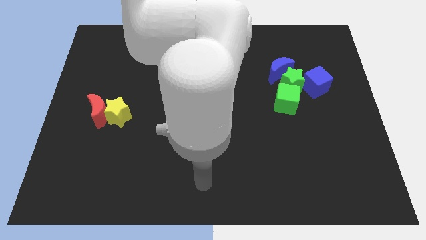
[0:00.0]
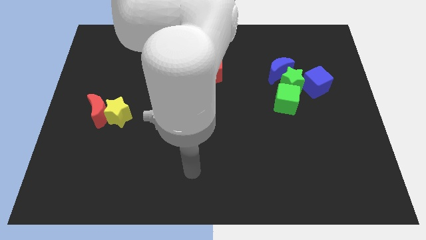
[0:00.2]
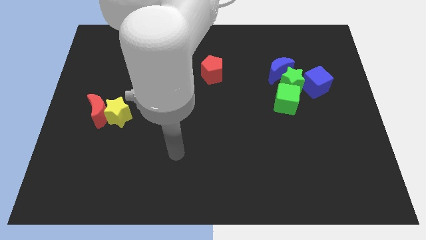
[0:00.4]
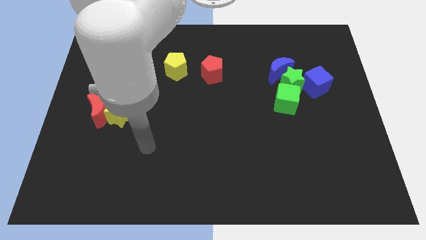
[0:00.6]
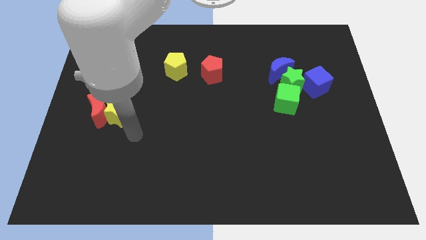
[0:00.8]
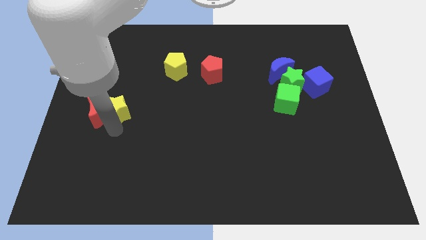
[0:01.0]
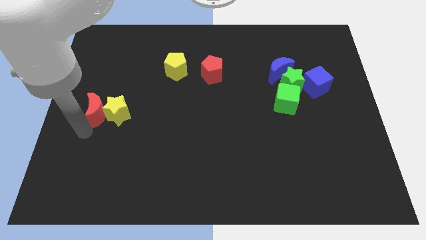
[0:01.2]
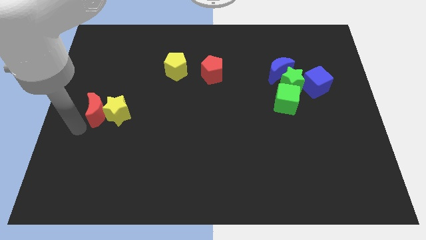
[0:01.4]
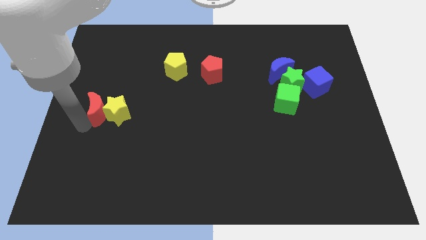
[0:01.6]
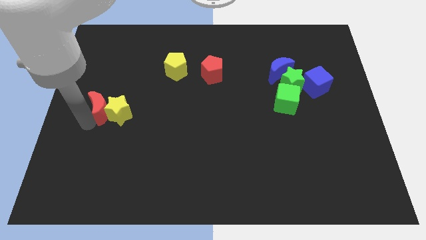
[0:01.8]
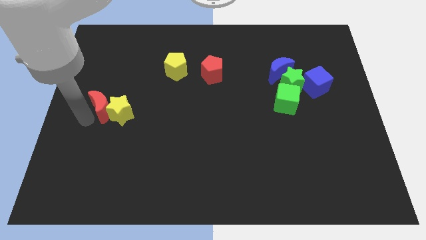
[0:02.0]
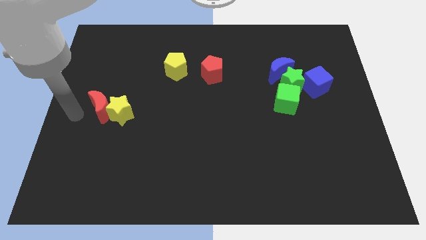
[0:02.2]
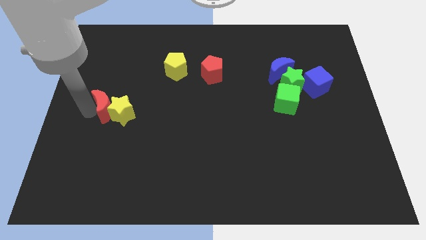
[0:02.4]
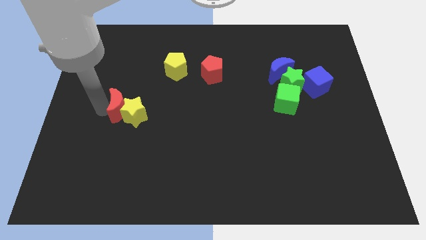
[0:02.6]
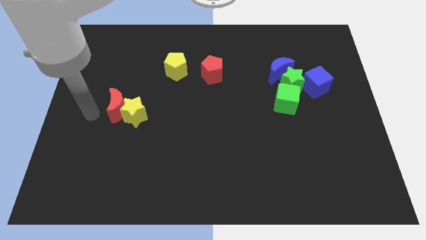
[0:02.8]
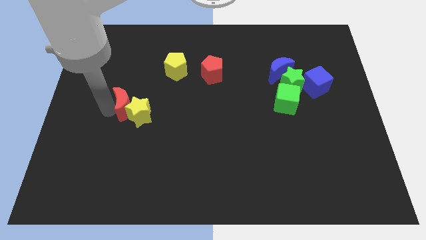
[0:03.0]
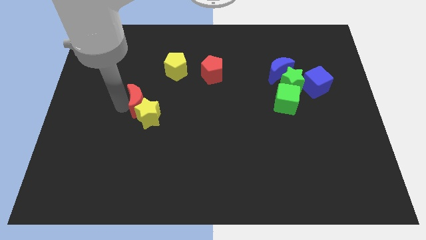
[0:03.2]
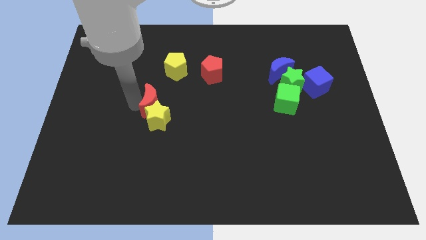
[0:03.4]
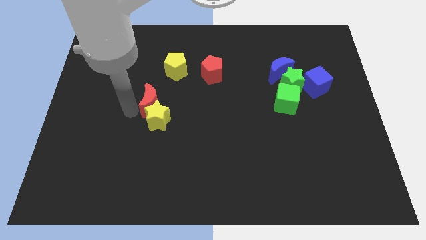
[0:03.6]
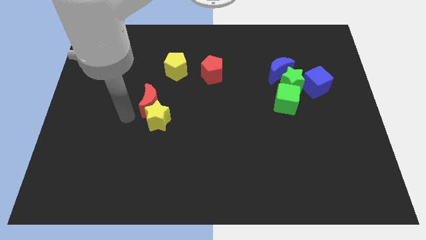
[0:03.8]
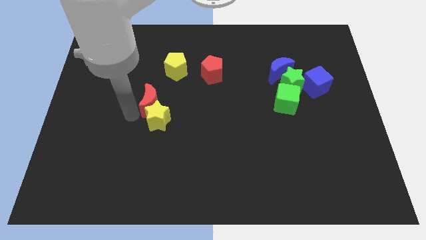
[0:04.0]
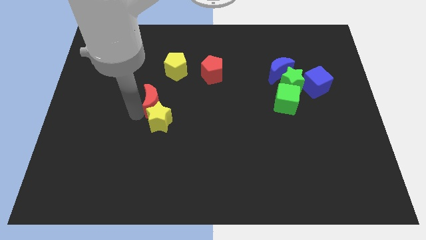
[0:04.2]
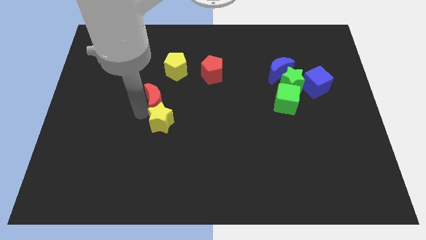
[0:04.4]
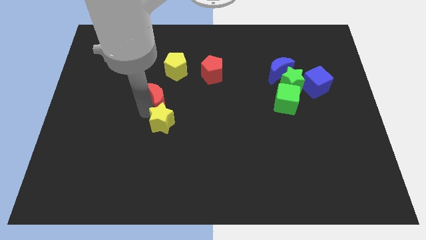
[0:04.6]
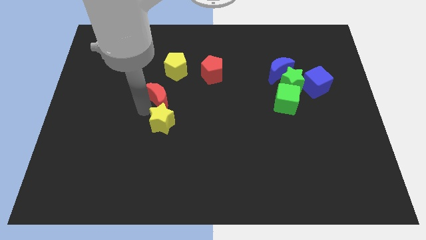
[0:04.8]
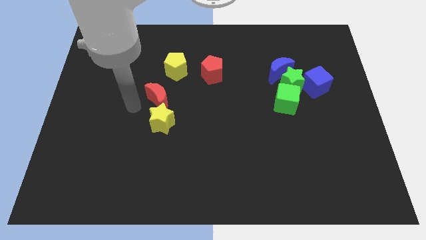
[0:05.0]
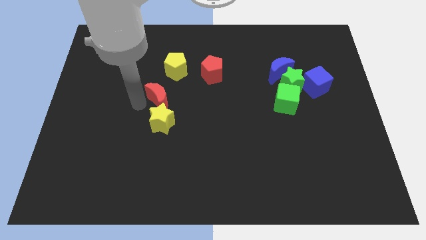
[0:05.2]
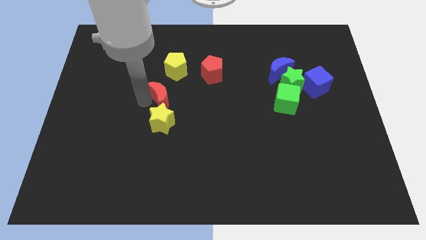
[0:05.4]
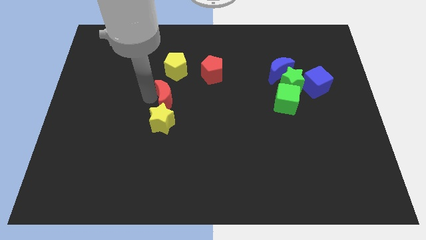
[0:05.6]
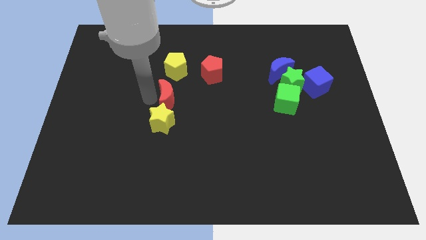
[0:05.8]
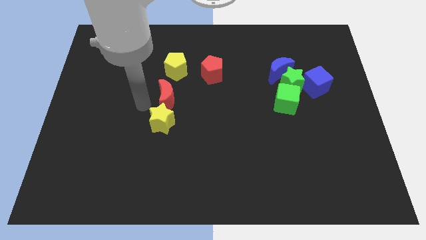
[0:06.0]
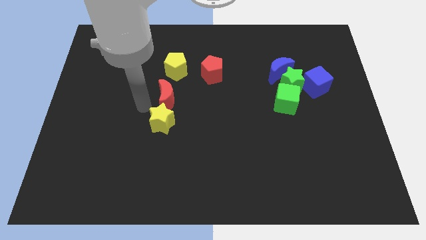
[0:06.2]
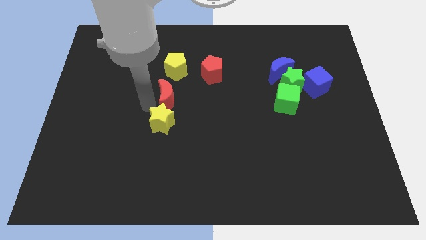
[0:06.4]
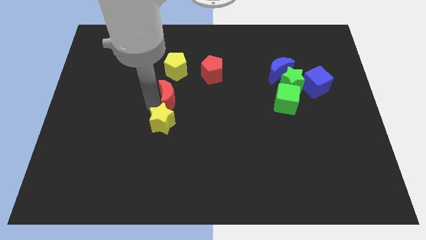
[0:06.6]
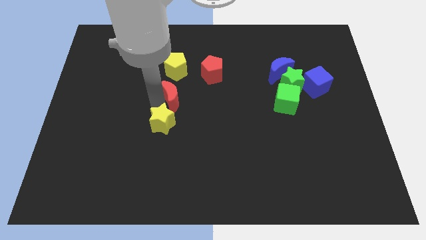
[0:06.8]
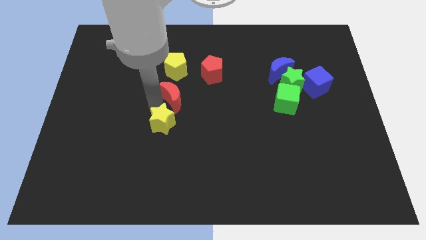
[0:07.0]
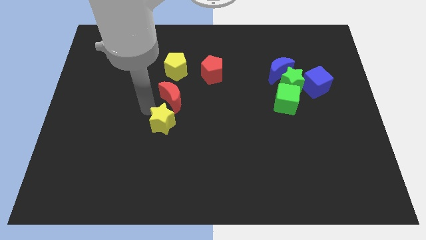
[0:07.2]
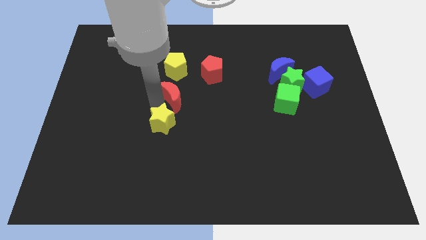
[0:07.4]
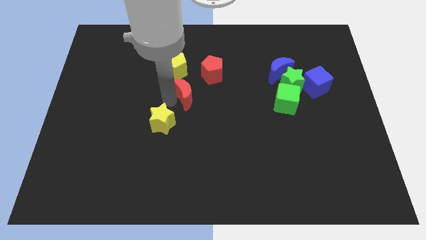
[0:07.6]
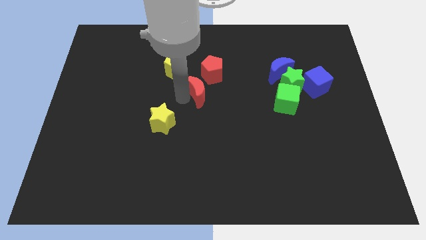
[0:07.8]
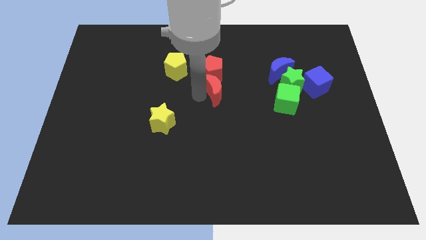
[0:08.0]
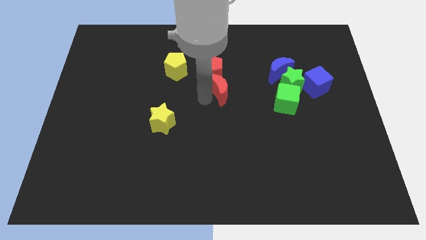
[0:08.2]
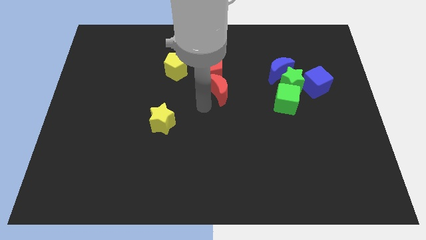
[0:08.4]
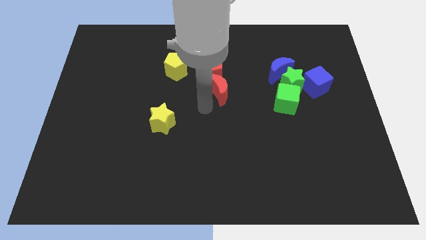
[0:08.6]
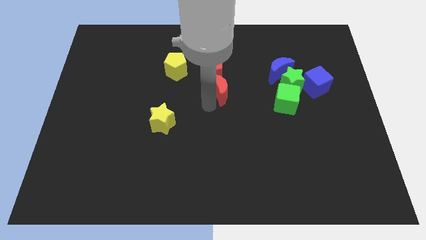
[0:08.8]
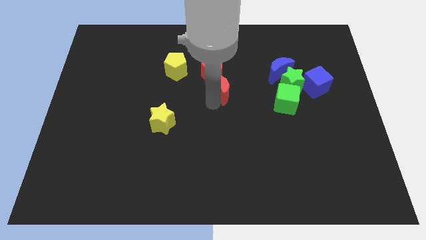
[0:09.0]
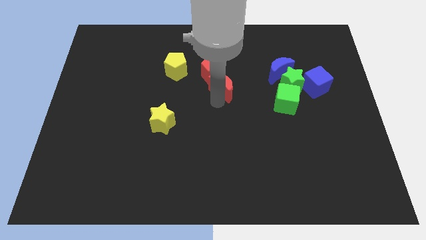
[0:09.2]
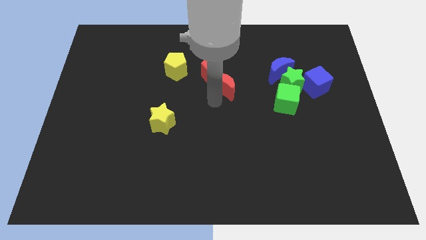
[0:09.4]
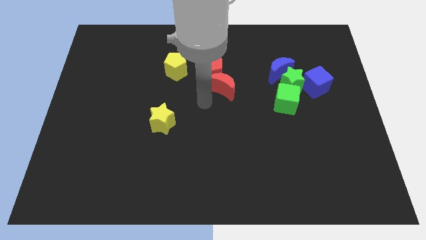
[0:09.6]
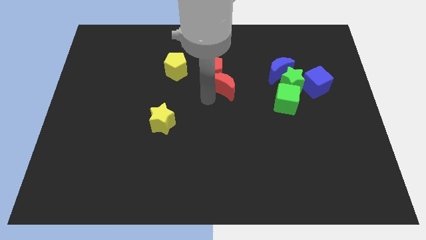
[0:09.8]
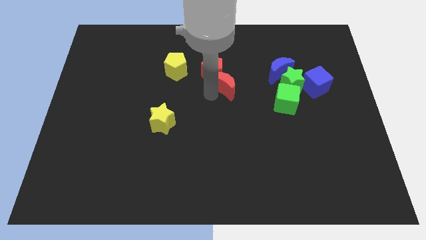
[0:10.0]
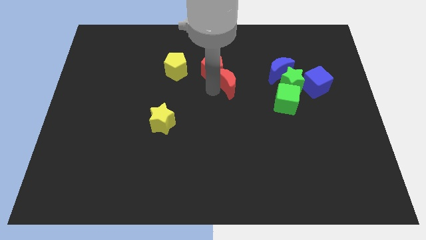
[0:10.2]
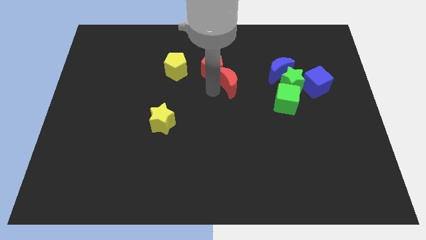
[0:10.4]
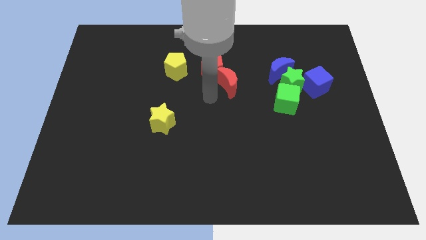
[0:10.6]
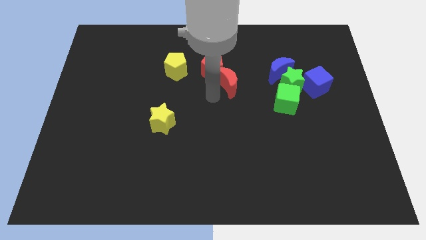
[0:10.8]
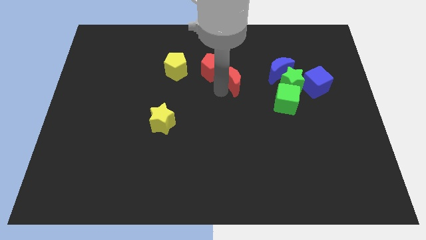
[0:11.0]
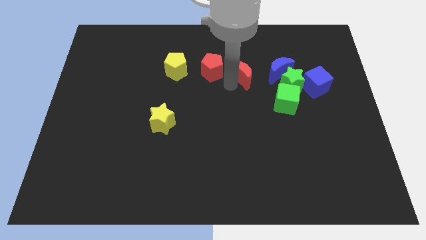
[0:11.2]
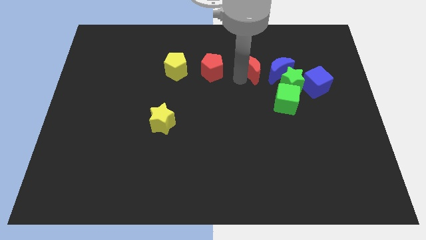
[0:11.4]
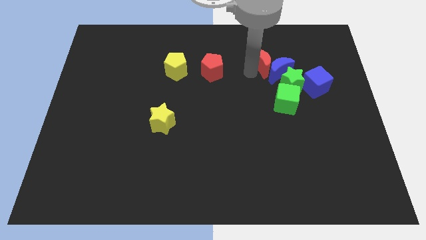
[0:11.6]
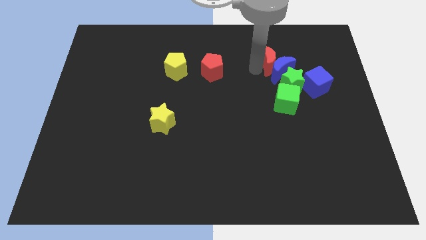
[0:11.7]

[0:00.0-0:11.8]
move the red moon to the top side of the green star
